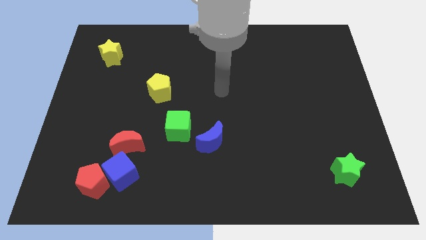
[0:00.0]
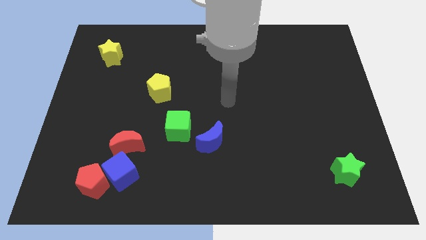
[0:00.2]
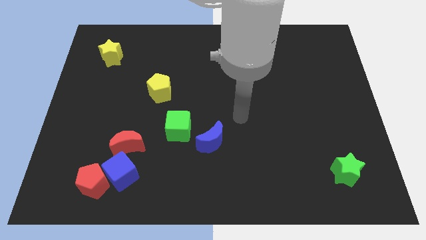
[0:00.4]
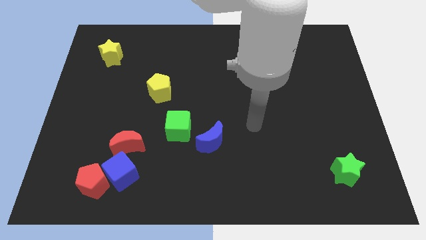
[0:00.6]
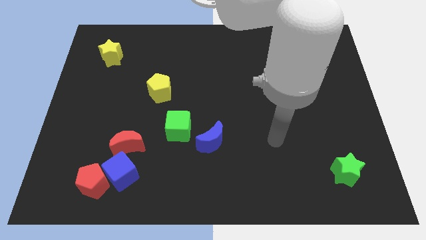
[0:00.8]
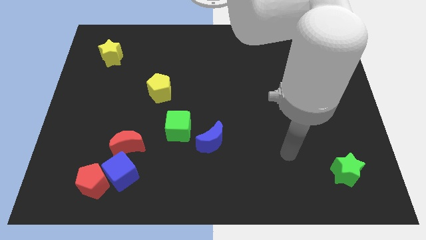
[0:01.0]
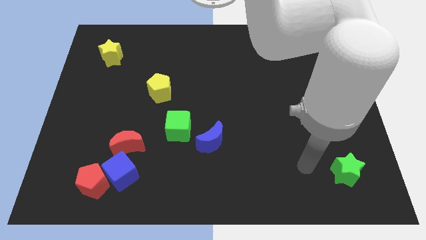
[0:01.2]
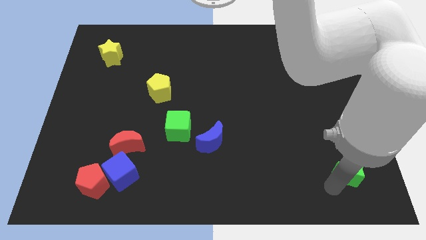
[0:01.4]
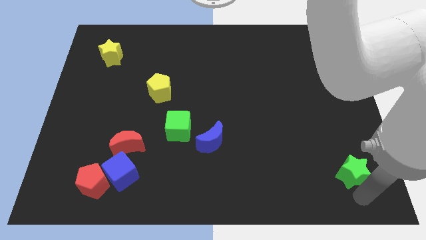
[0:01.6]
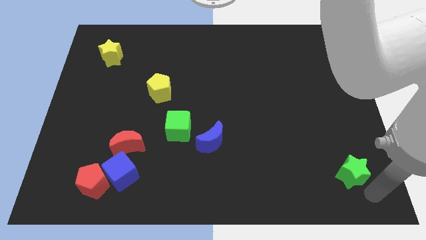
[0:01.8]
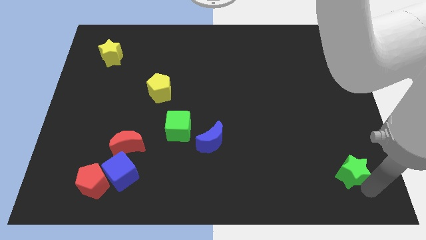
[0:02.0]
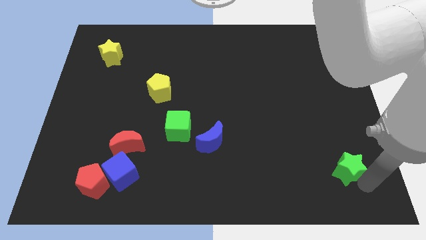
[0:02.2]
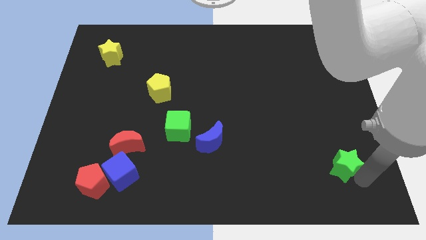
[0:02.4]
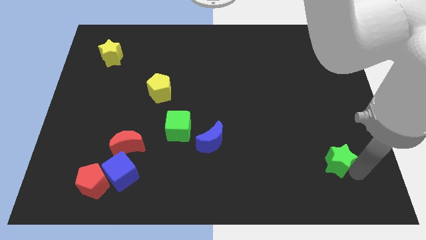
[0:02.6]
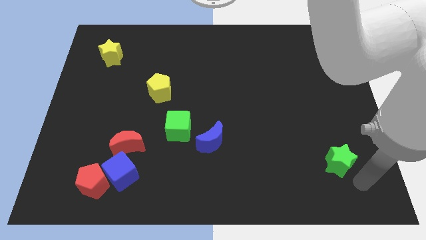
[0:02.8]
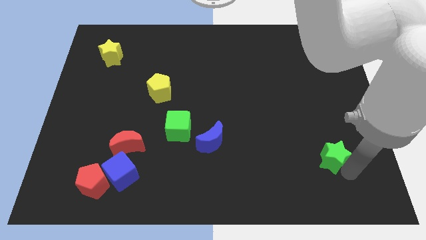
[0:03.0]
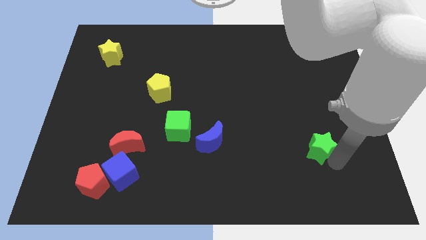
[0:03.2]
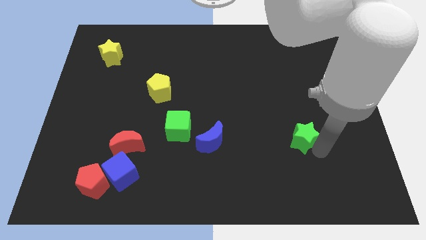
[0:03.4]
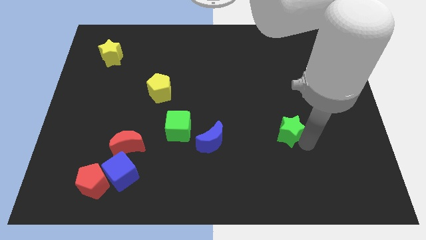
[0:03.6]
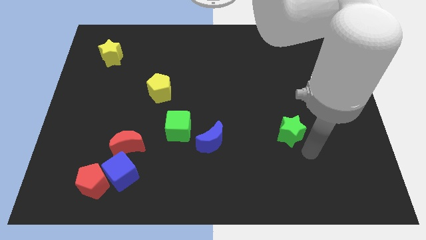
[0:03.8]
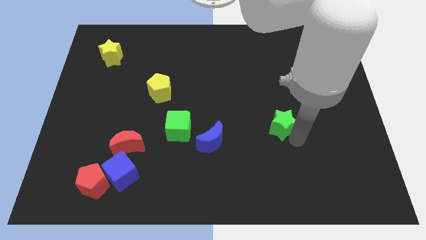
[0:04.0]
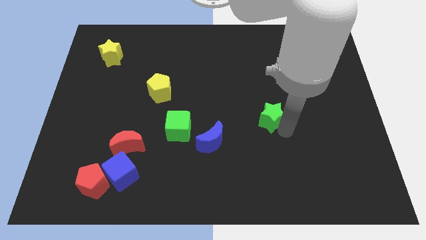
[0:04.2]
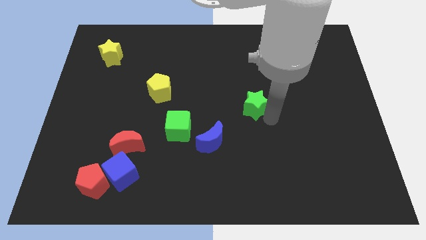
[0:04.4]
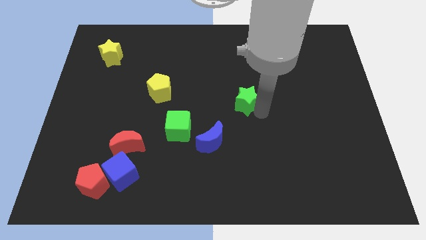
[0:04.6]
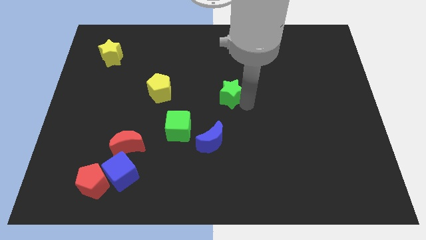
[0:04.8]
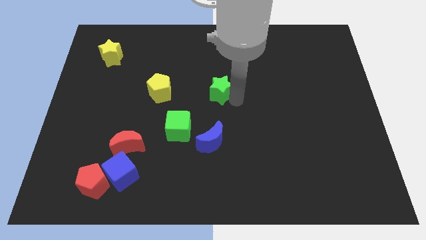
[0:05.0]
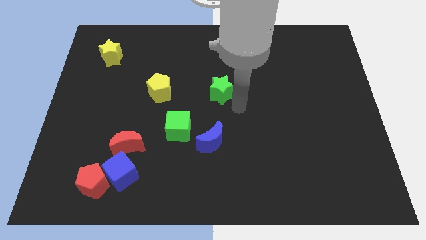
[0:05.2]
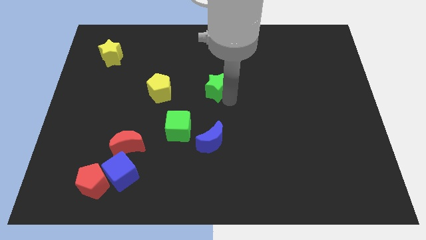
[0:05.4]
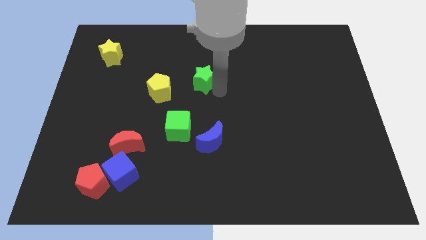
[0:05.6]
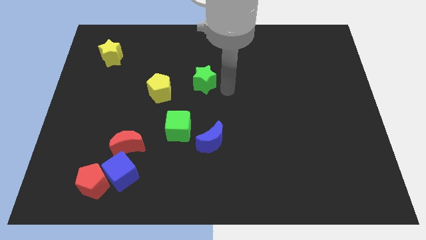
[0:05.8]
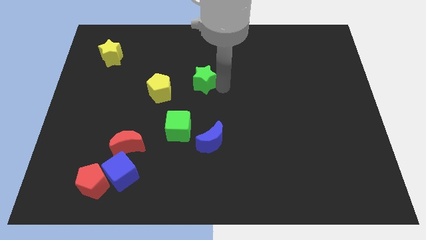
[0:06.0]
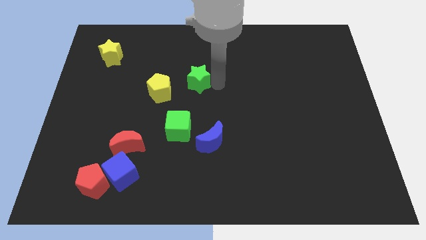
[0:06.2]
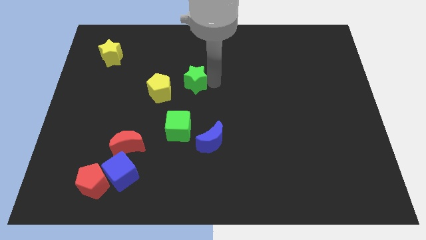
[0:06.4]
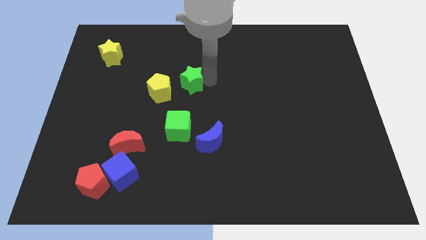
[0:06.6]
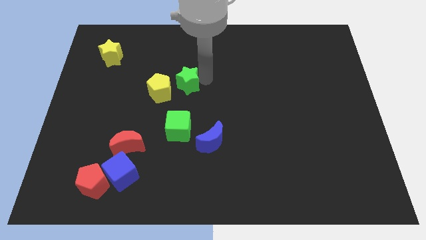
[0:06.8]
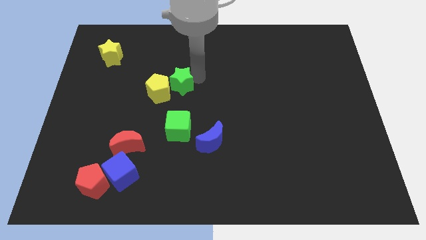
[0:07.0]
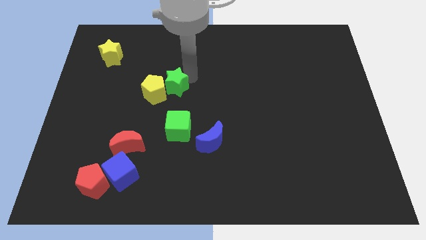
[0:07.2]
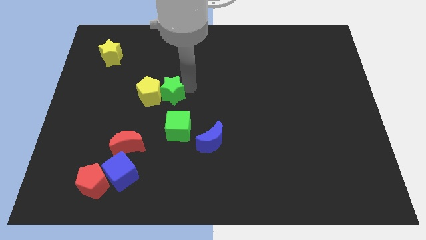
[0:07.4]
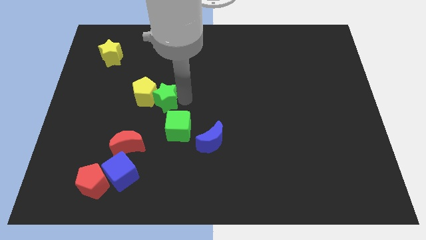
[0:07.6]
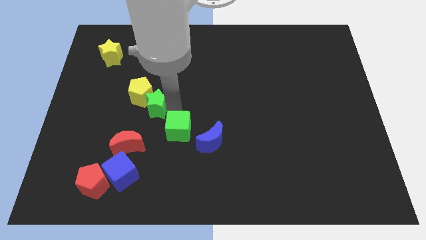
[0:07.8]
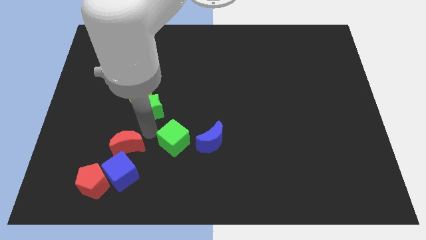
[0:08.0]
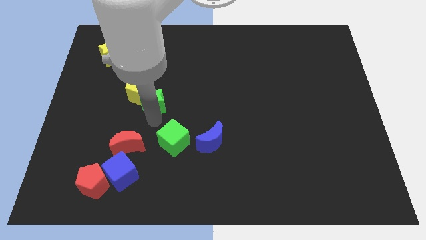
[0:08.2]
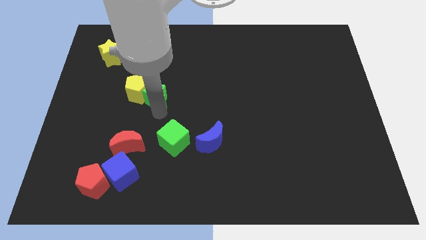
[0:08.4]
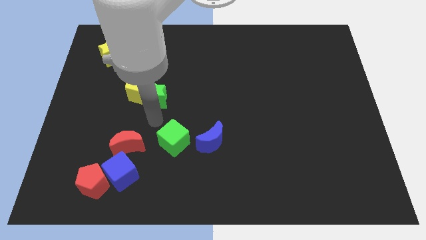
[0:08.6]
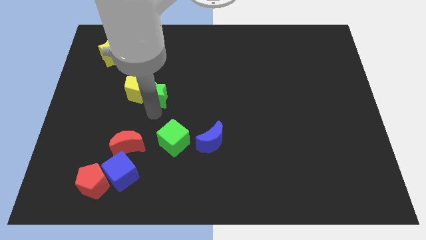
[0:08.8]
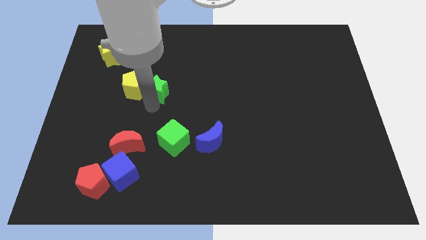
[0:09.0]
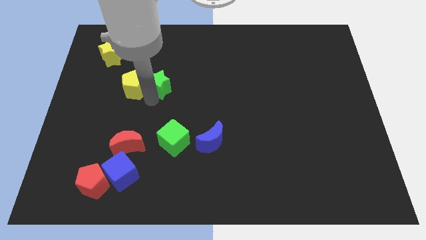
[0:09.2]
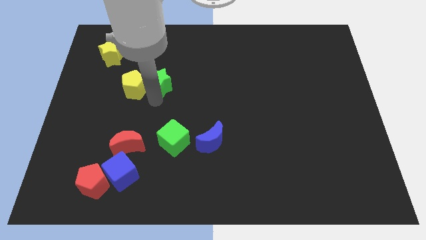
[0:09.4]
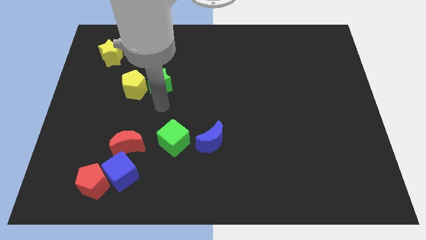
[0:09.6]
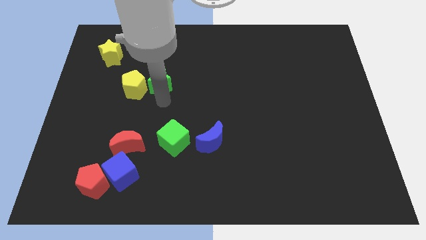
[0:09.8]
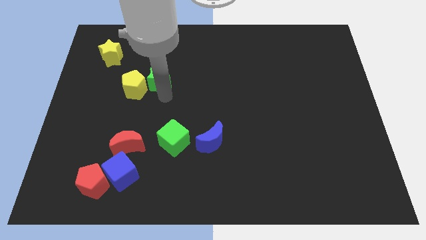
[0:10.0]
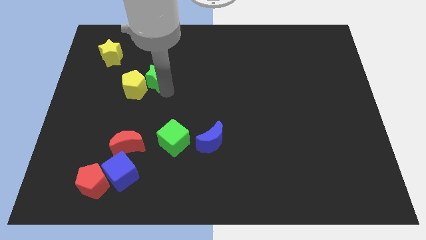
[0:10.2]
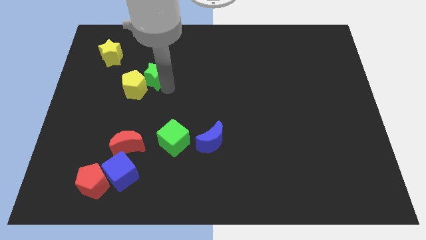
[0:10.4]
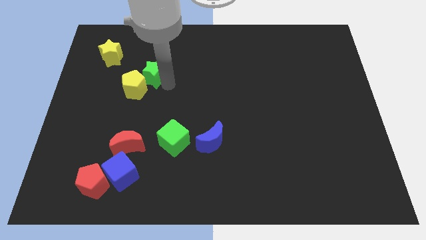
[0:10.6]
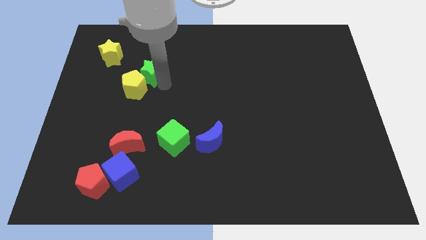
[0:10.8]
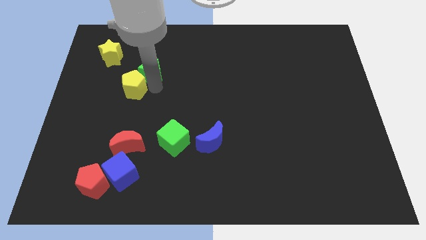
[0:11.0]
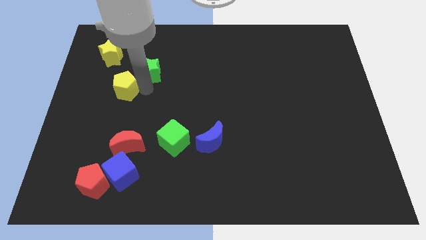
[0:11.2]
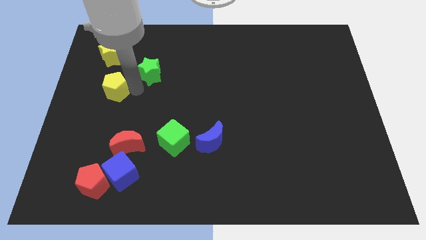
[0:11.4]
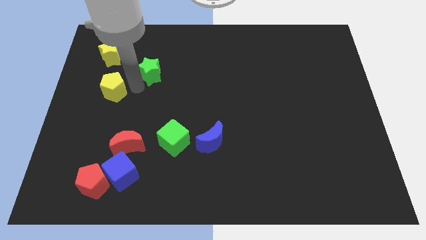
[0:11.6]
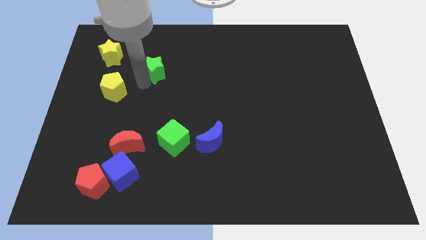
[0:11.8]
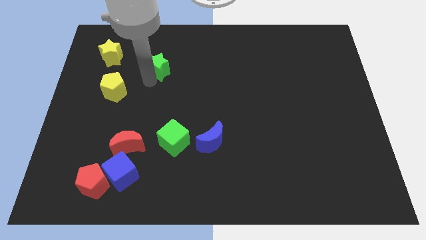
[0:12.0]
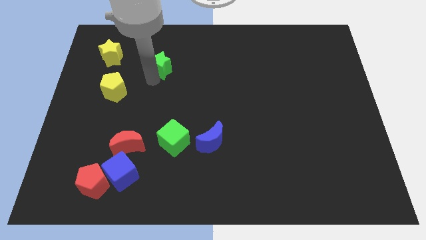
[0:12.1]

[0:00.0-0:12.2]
move the green star to the right of the yellow star
